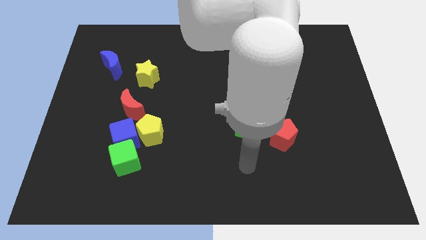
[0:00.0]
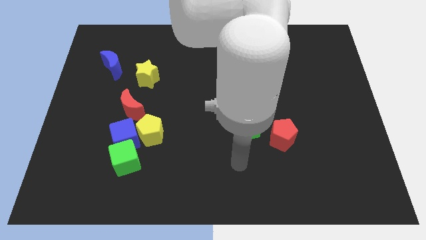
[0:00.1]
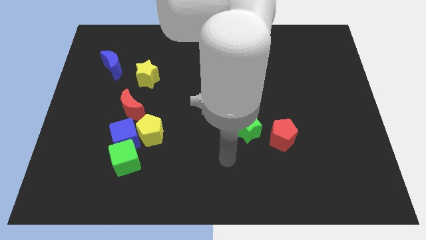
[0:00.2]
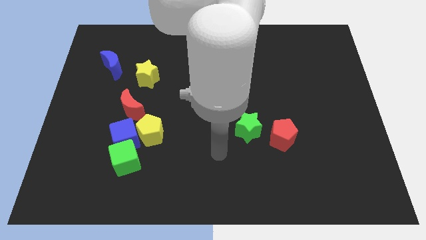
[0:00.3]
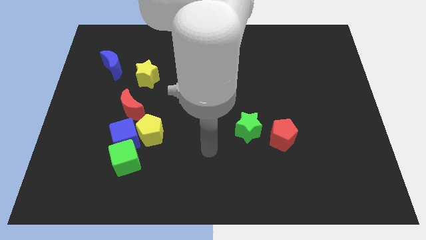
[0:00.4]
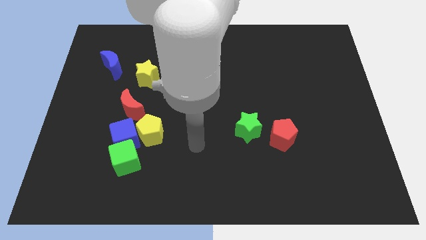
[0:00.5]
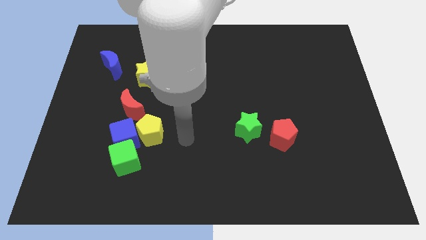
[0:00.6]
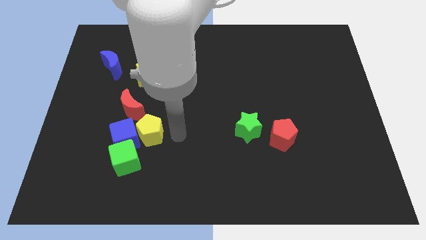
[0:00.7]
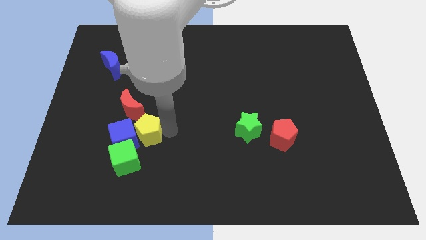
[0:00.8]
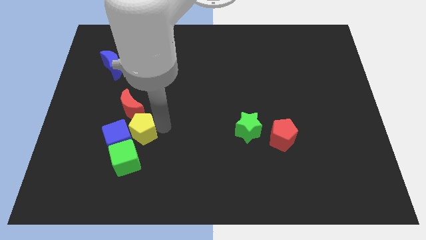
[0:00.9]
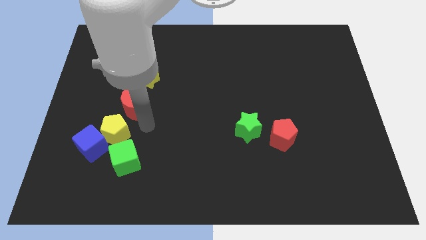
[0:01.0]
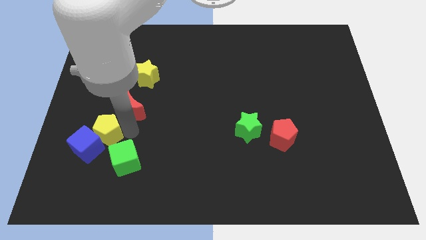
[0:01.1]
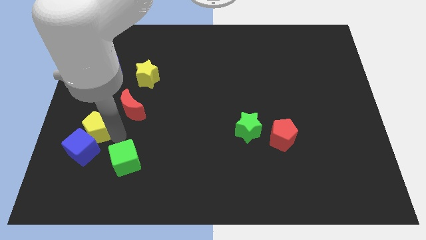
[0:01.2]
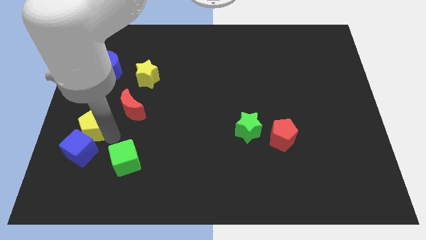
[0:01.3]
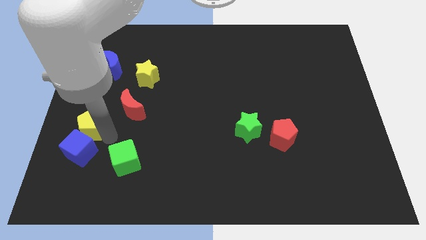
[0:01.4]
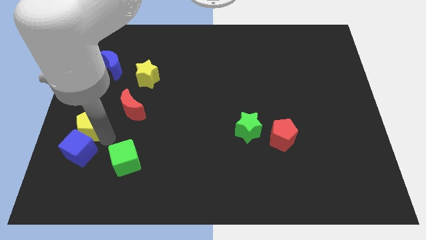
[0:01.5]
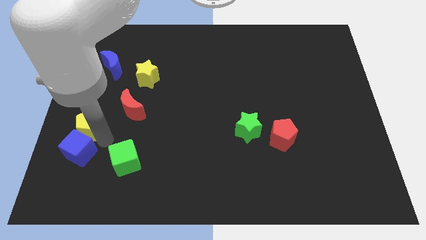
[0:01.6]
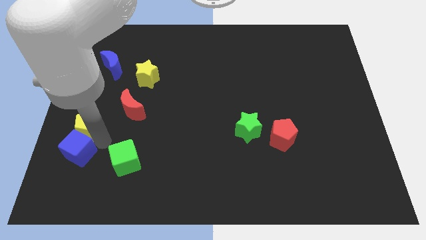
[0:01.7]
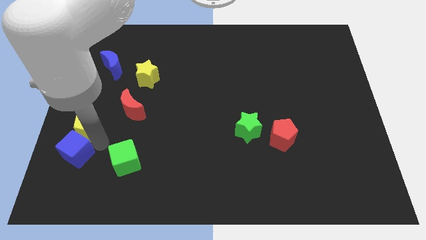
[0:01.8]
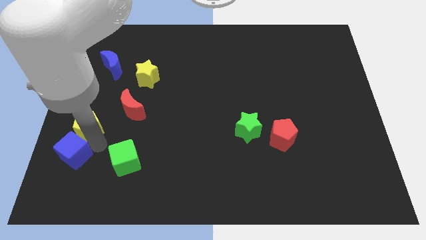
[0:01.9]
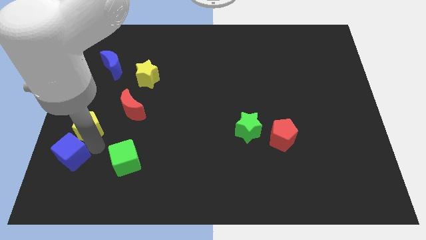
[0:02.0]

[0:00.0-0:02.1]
move the blue cube away from the yellow pentagon, green cube, and red moon

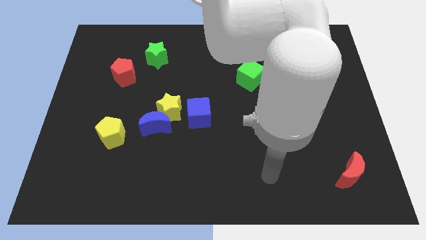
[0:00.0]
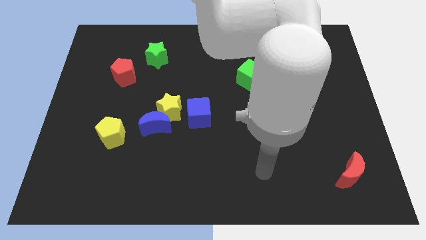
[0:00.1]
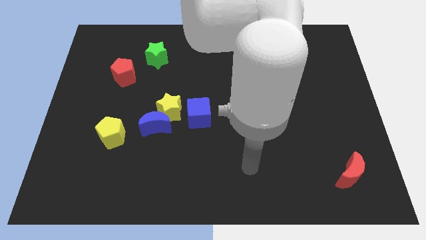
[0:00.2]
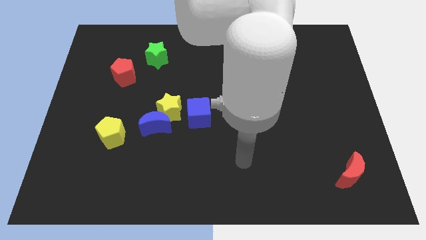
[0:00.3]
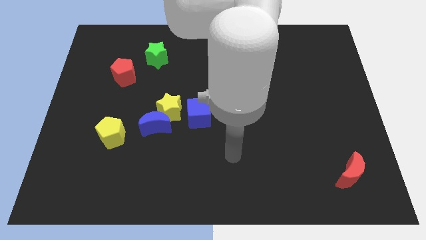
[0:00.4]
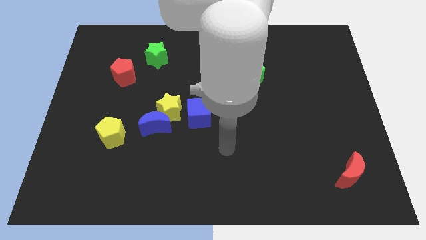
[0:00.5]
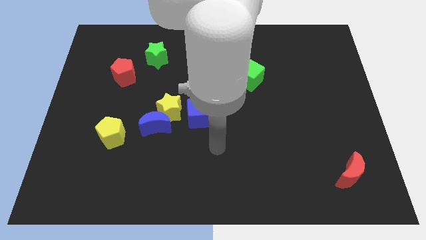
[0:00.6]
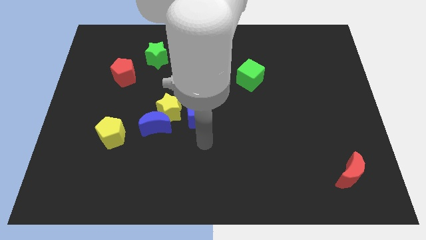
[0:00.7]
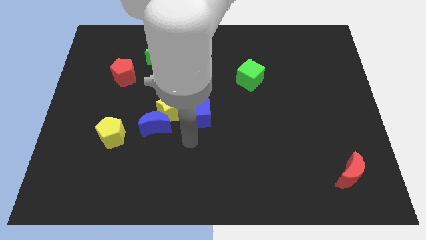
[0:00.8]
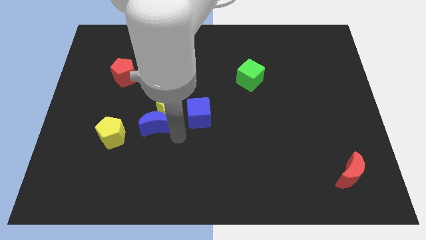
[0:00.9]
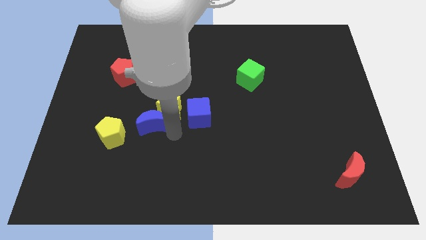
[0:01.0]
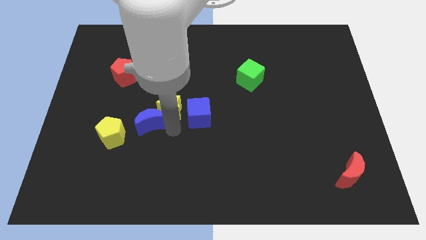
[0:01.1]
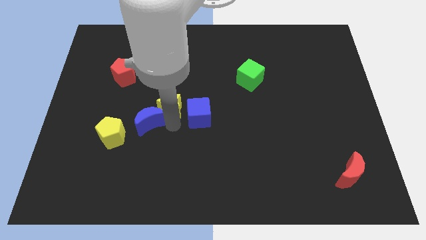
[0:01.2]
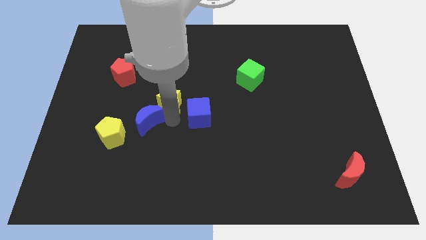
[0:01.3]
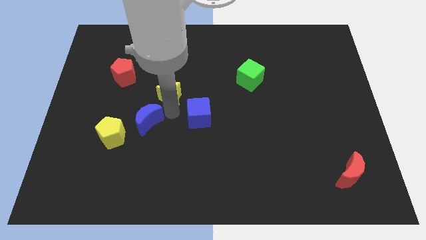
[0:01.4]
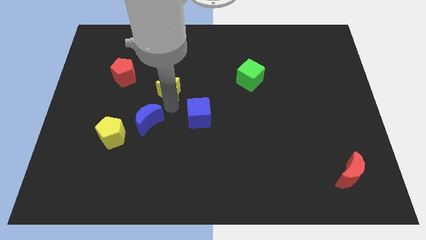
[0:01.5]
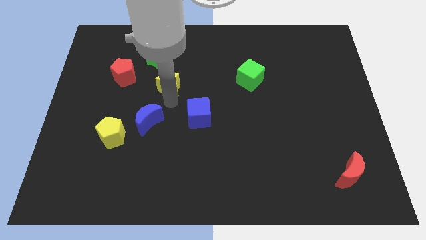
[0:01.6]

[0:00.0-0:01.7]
separate the yellow star from the blue moon and blue cube

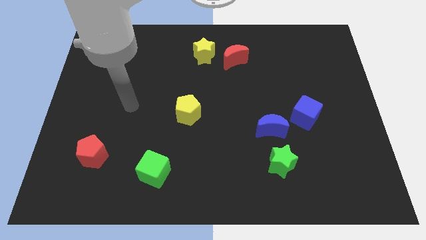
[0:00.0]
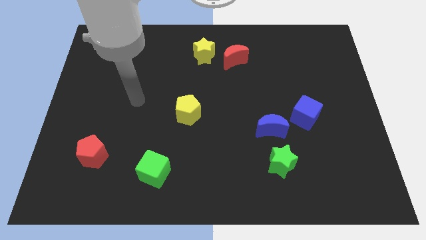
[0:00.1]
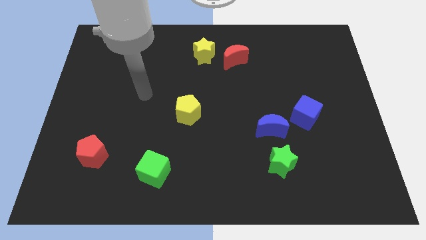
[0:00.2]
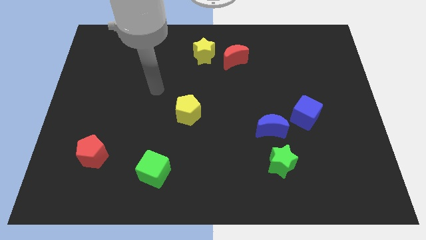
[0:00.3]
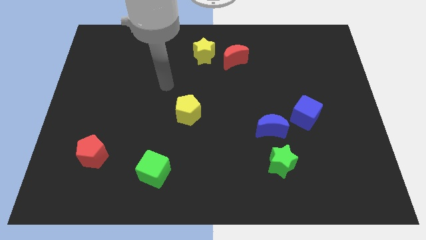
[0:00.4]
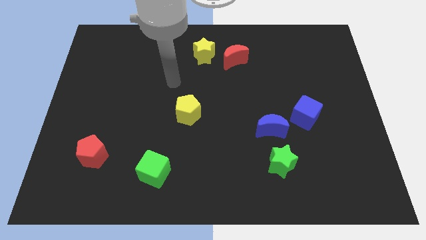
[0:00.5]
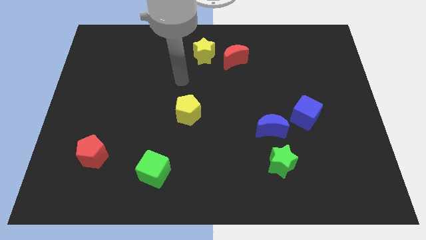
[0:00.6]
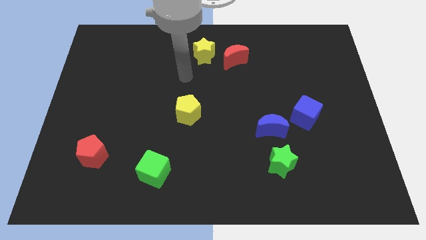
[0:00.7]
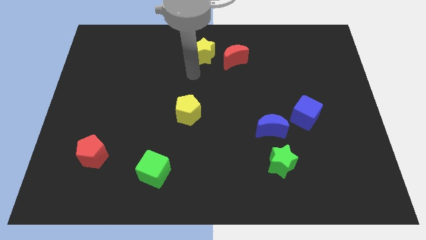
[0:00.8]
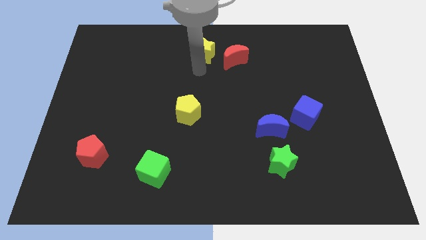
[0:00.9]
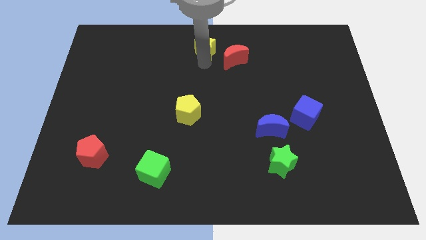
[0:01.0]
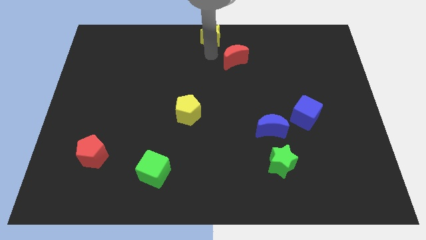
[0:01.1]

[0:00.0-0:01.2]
separate the red moon from the yellow star

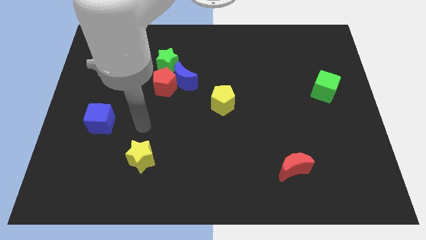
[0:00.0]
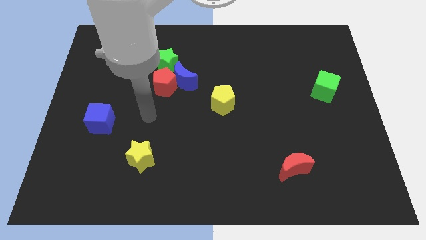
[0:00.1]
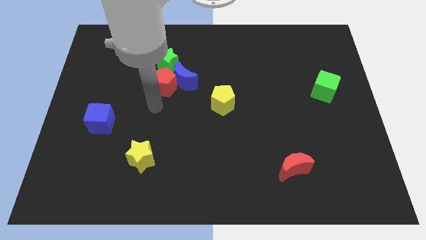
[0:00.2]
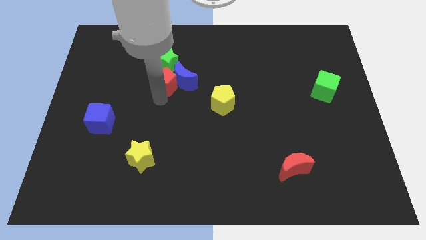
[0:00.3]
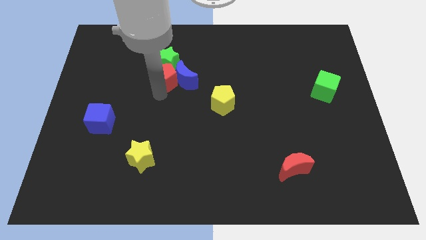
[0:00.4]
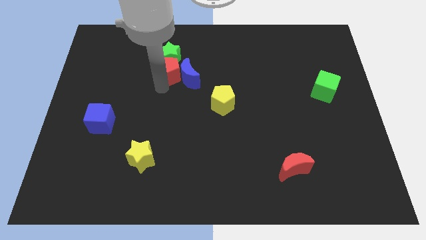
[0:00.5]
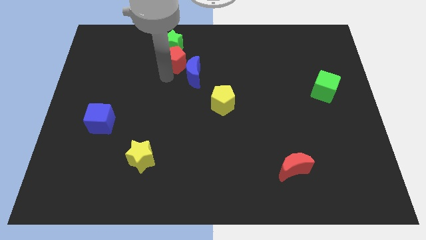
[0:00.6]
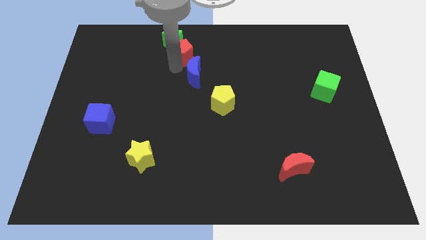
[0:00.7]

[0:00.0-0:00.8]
move the blue moon away from the red pentagon and green star

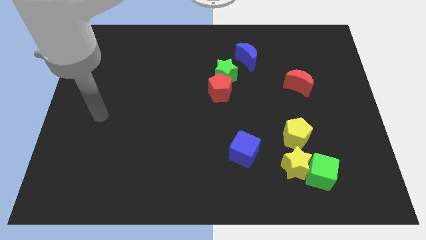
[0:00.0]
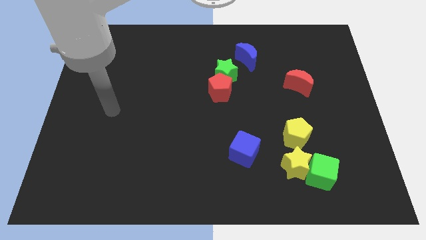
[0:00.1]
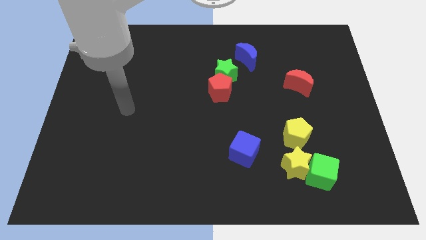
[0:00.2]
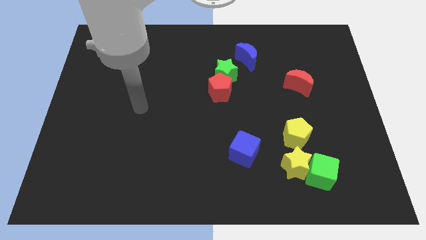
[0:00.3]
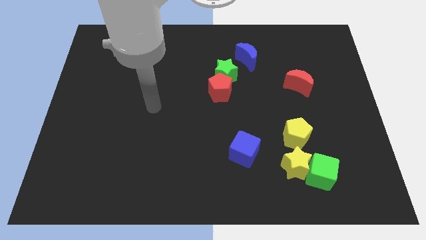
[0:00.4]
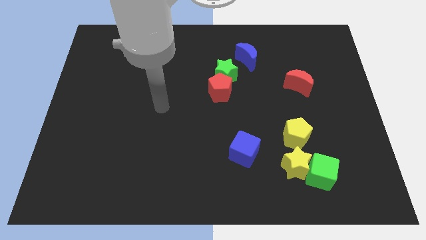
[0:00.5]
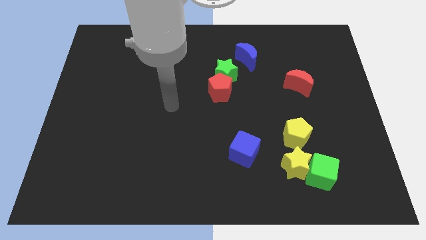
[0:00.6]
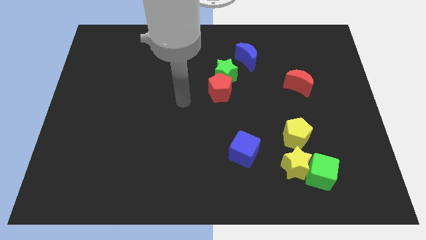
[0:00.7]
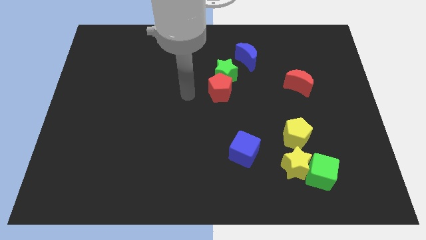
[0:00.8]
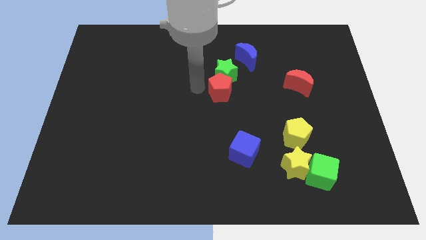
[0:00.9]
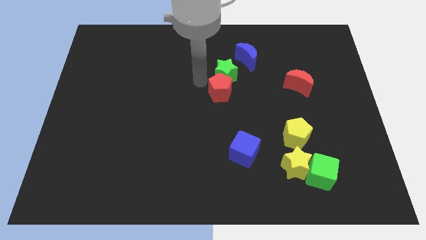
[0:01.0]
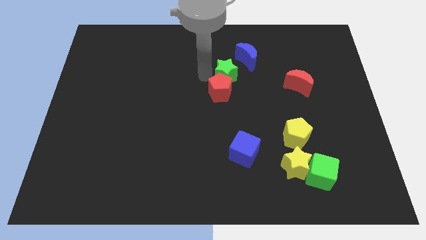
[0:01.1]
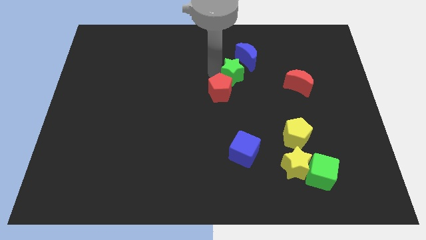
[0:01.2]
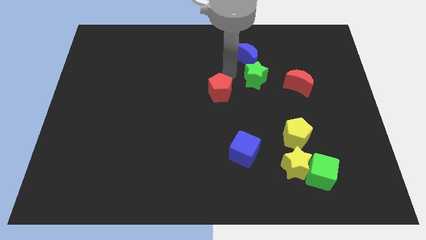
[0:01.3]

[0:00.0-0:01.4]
separate the red pentagon from the green star

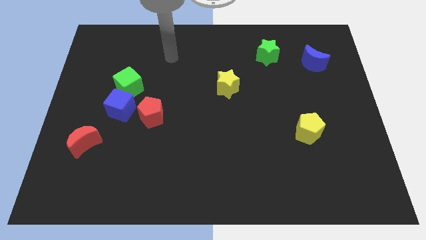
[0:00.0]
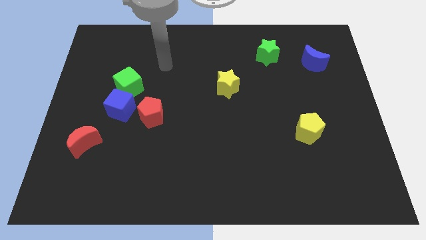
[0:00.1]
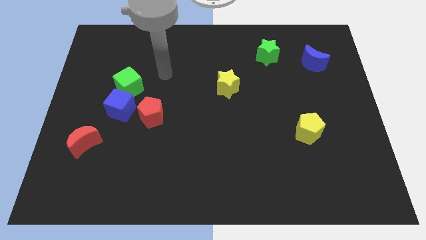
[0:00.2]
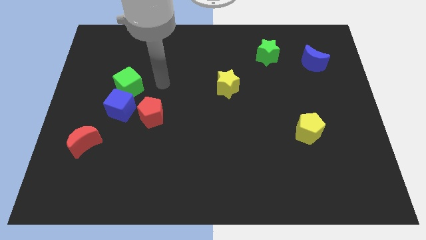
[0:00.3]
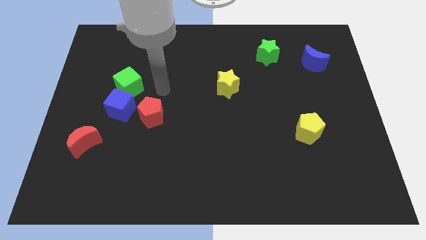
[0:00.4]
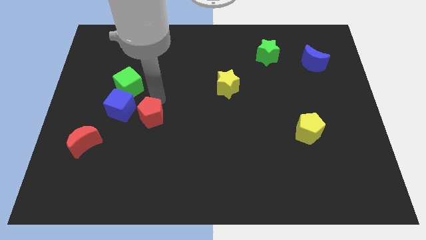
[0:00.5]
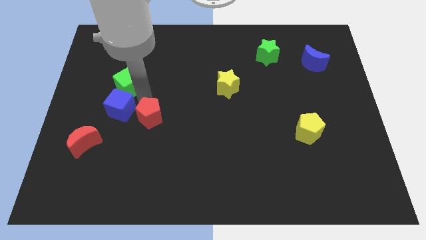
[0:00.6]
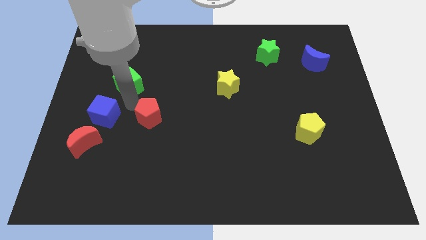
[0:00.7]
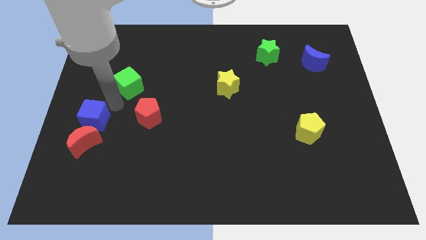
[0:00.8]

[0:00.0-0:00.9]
pull the green cube apart from the blue cube

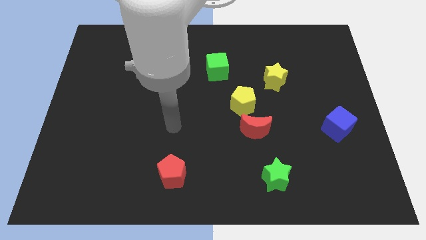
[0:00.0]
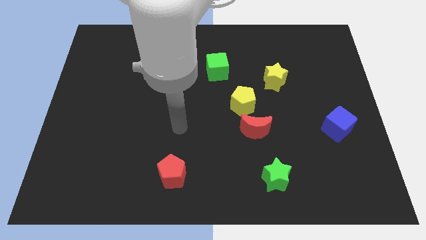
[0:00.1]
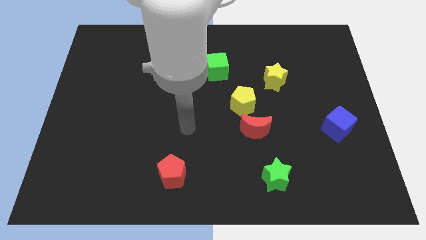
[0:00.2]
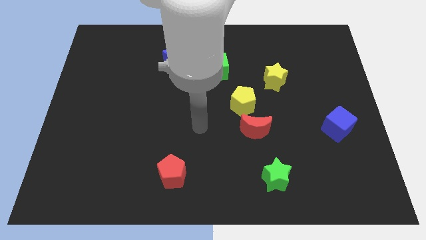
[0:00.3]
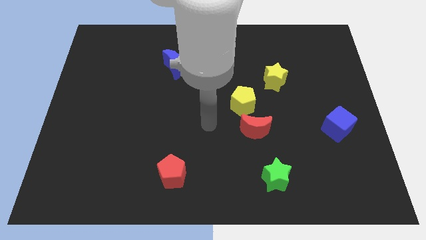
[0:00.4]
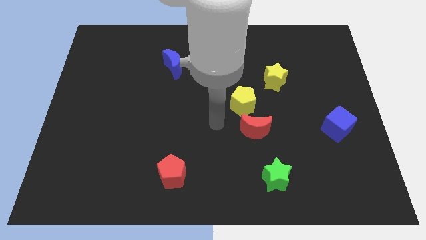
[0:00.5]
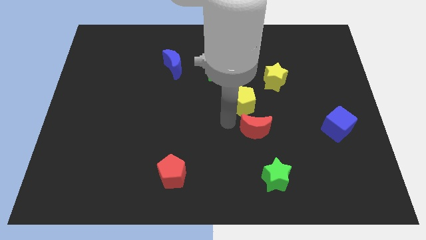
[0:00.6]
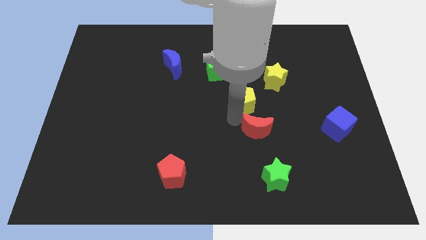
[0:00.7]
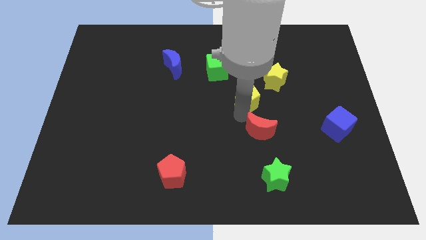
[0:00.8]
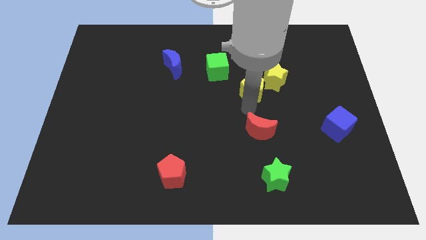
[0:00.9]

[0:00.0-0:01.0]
move the red moon away from the yellow pentagon

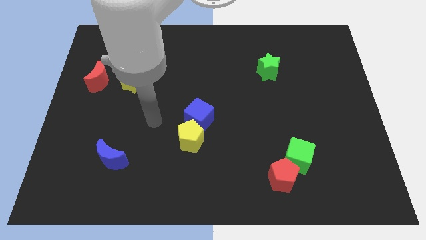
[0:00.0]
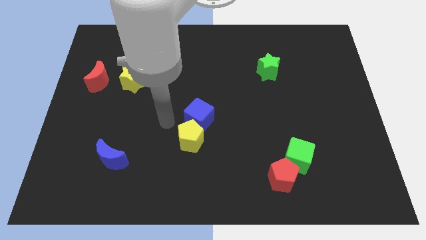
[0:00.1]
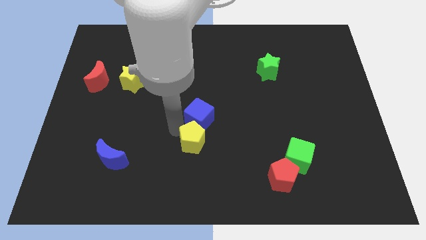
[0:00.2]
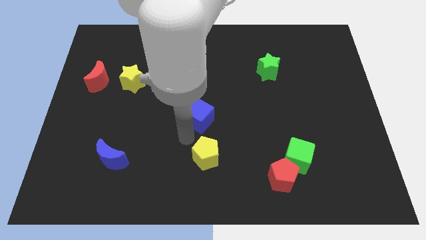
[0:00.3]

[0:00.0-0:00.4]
pull the blue cube apart from the yellow pentagon
